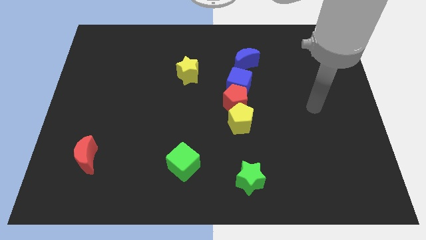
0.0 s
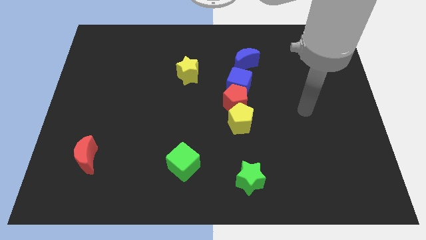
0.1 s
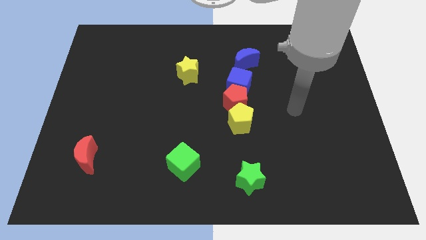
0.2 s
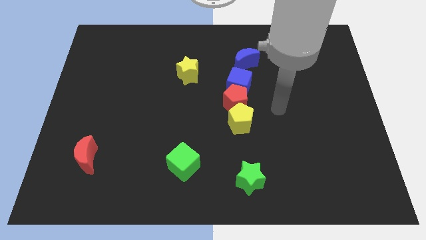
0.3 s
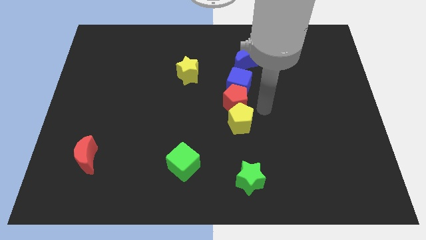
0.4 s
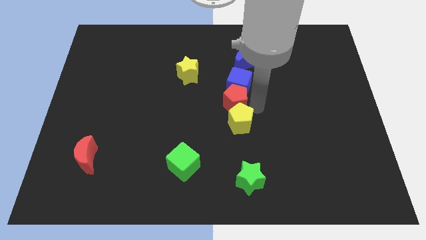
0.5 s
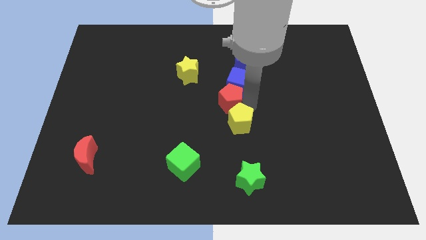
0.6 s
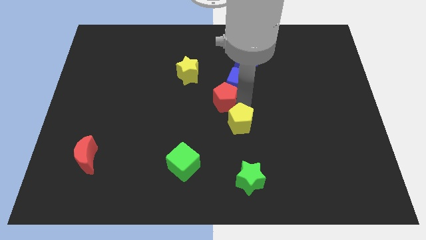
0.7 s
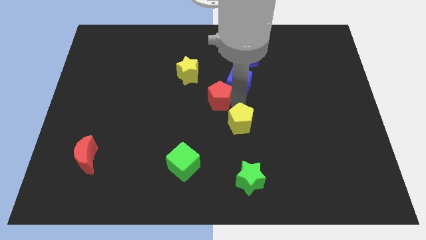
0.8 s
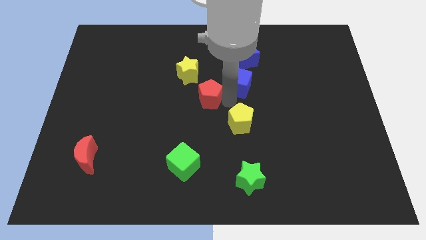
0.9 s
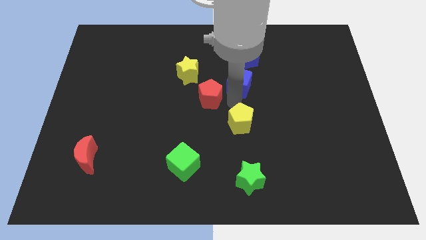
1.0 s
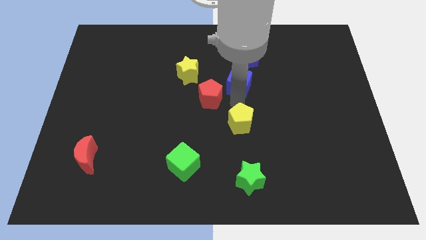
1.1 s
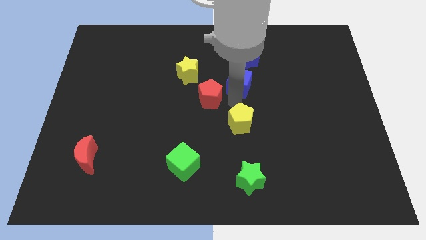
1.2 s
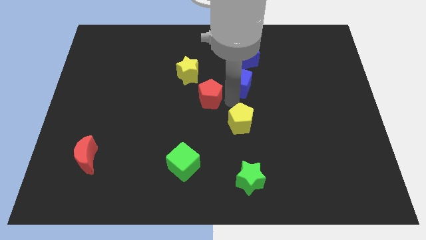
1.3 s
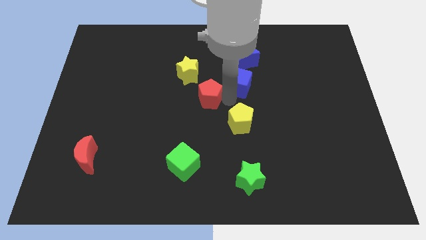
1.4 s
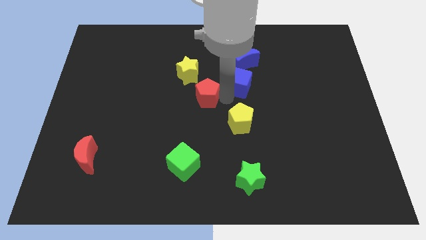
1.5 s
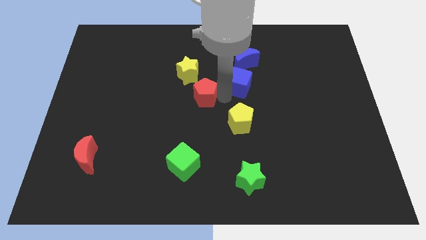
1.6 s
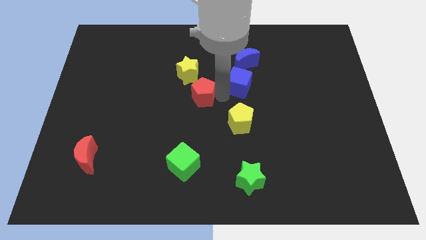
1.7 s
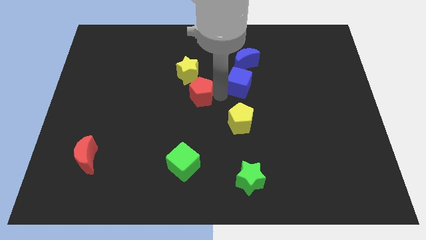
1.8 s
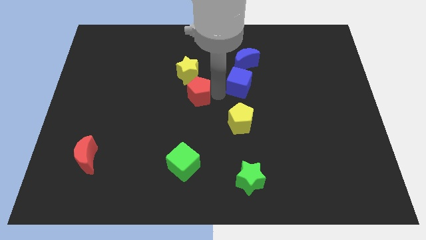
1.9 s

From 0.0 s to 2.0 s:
move the red pentagon away from the blue cube and yellow pentagon

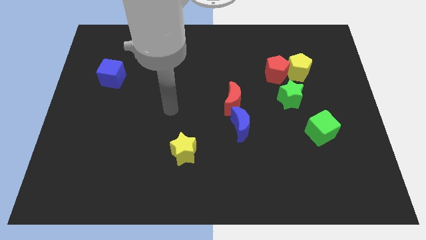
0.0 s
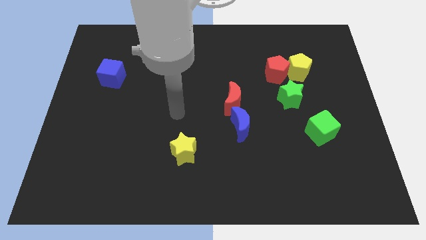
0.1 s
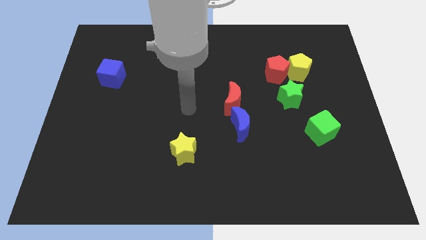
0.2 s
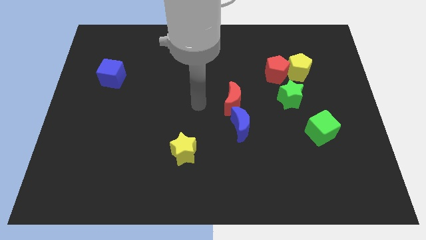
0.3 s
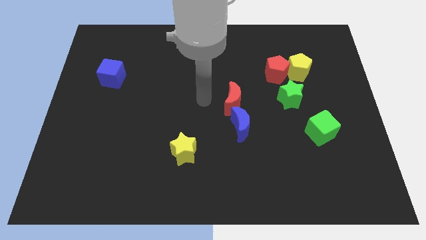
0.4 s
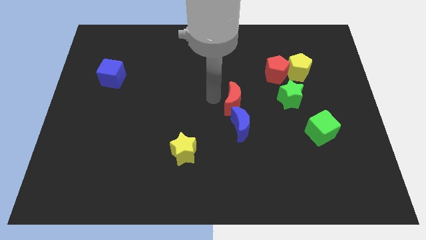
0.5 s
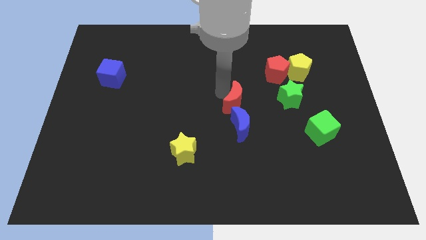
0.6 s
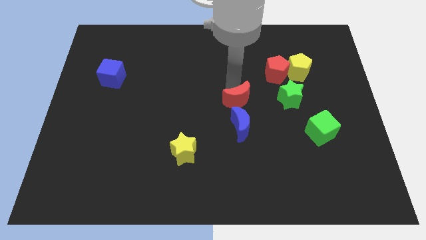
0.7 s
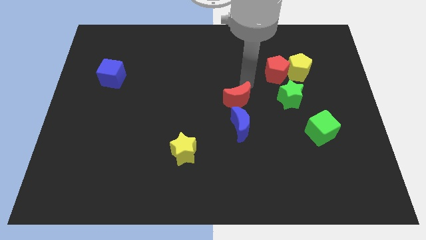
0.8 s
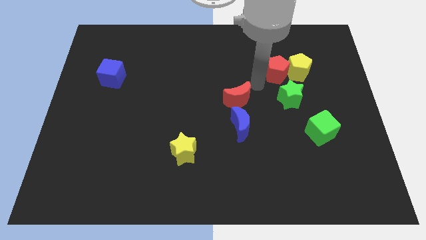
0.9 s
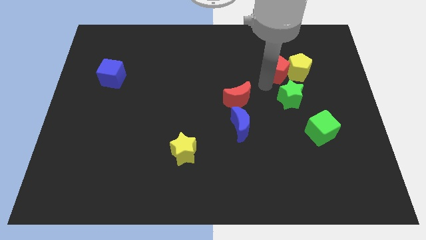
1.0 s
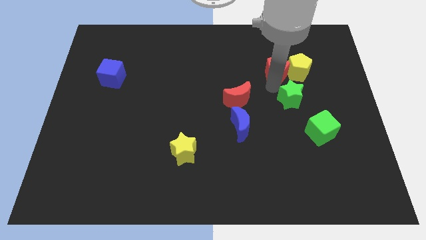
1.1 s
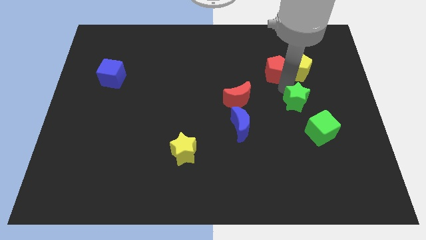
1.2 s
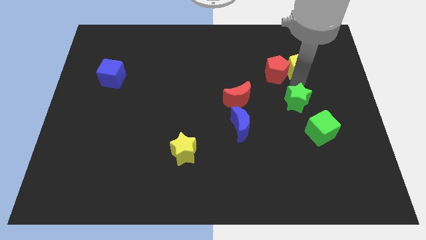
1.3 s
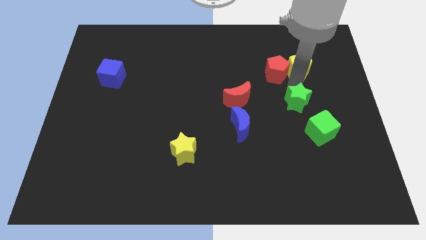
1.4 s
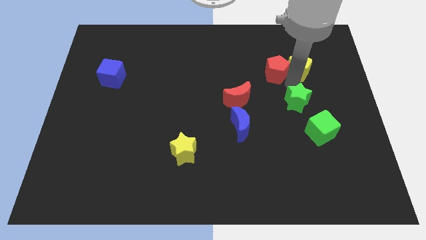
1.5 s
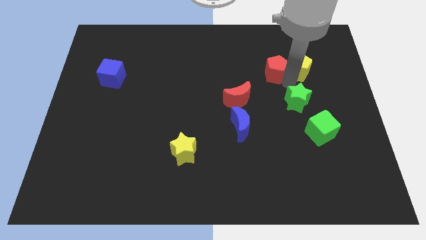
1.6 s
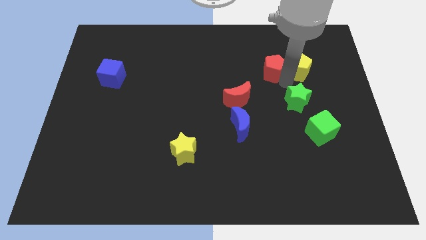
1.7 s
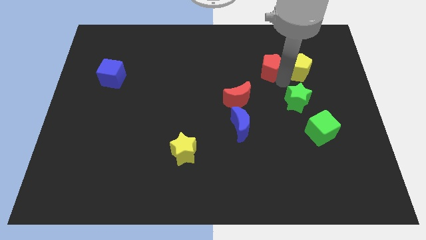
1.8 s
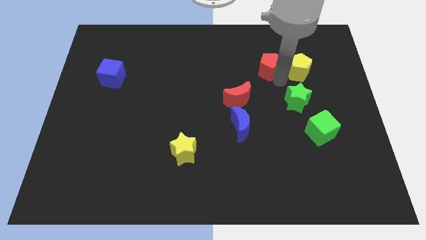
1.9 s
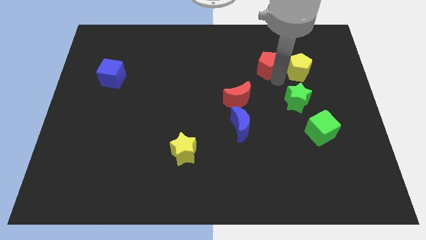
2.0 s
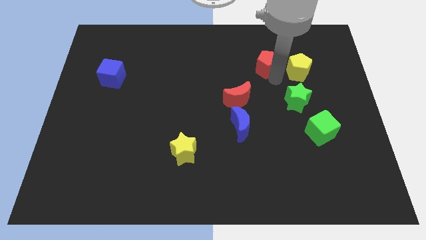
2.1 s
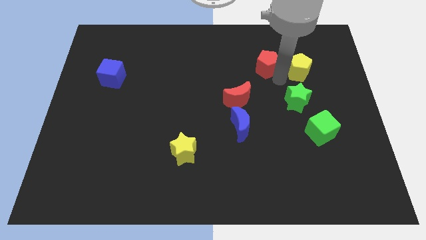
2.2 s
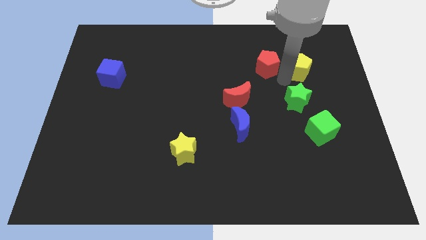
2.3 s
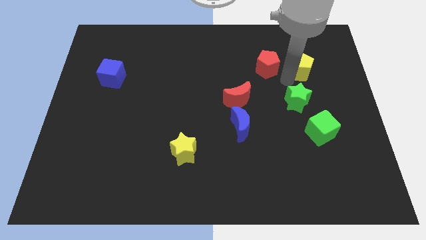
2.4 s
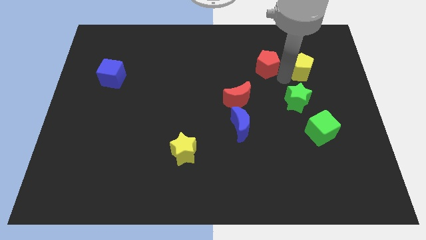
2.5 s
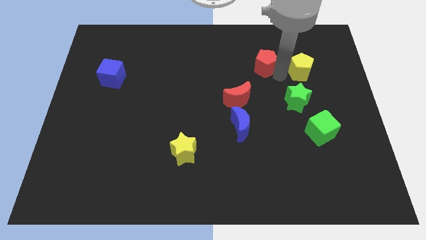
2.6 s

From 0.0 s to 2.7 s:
separate the red pentagon from the yellow pentagon and green star

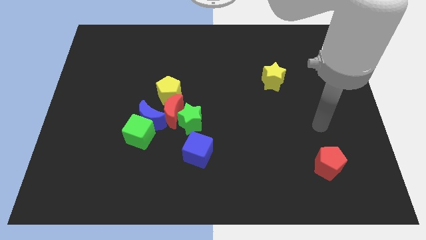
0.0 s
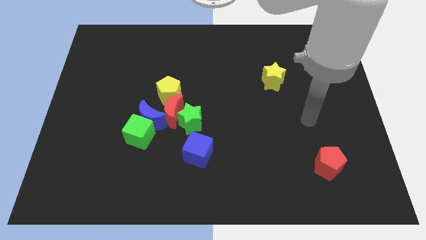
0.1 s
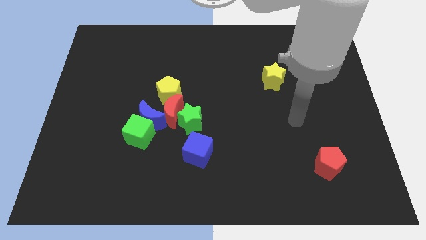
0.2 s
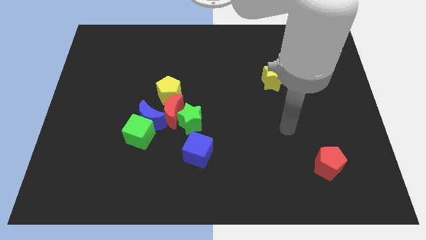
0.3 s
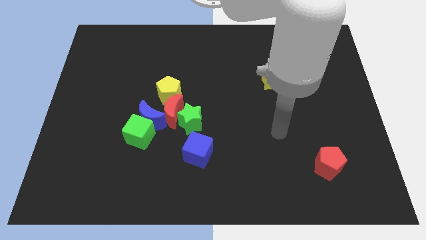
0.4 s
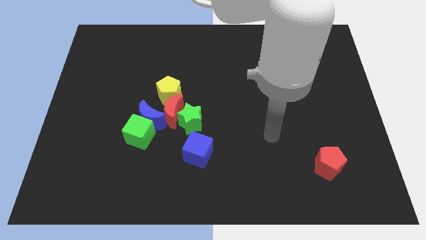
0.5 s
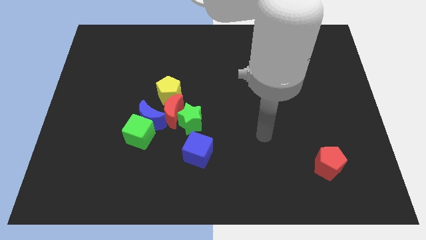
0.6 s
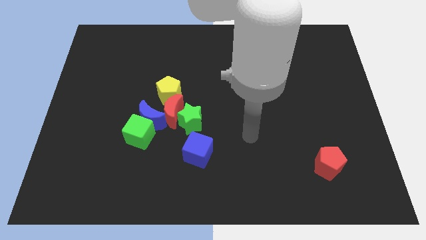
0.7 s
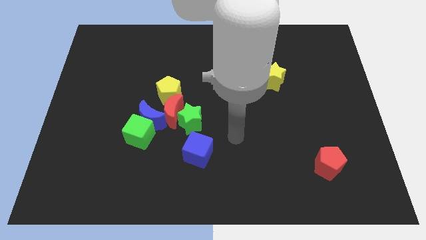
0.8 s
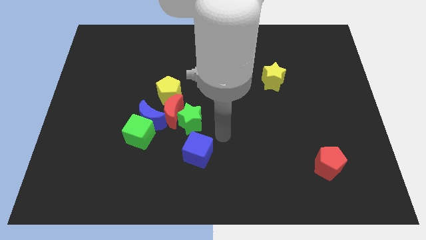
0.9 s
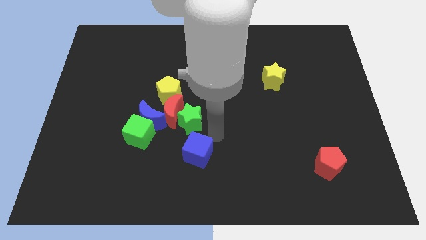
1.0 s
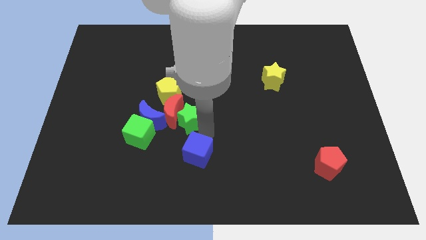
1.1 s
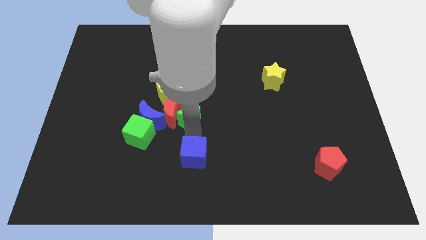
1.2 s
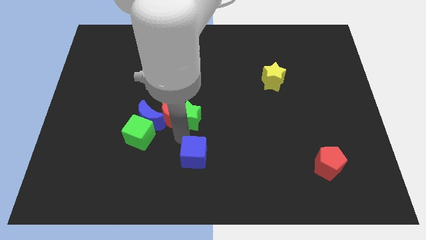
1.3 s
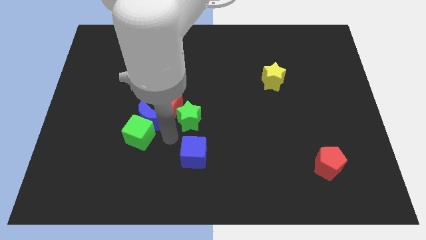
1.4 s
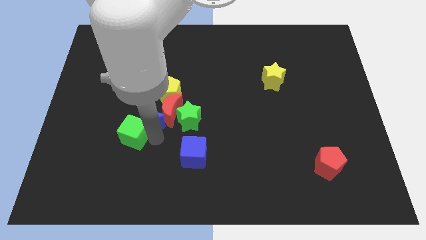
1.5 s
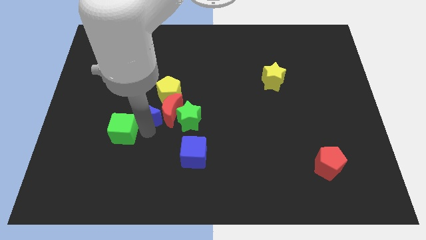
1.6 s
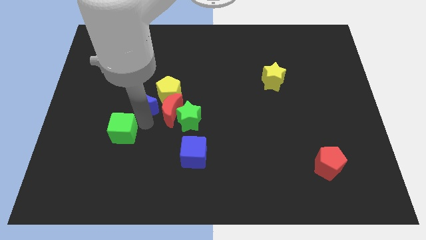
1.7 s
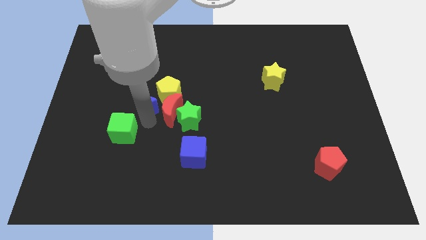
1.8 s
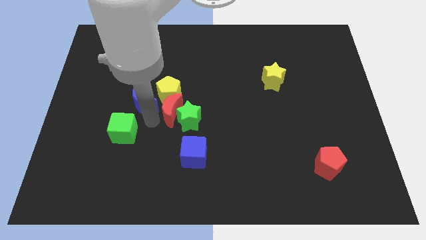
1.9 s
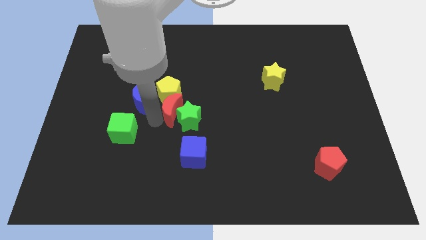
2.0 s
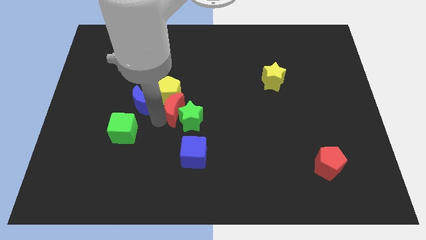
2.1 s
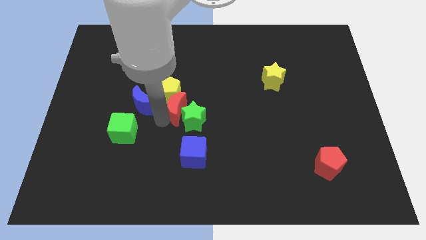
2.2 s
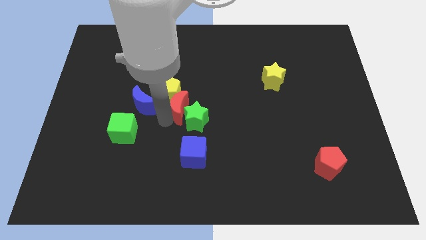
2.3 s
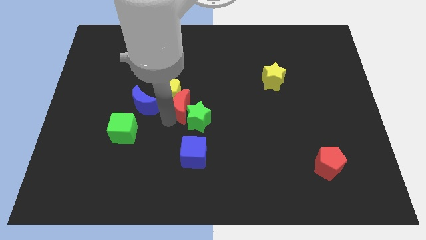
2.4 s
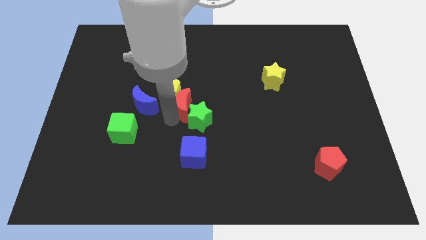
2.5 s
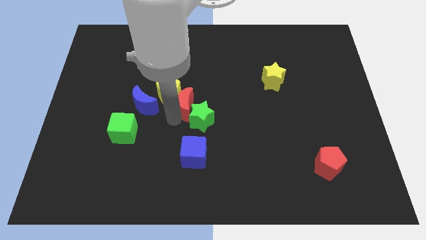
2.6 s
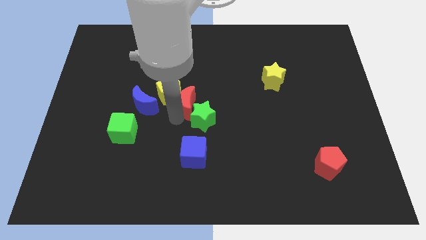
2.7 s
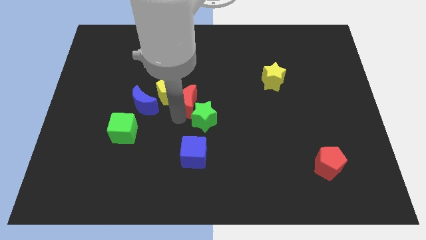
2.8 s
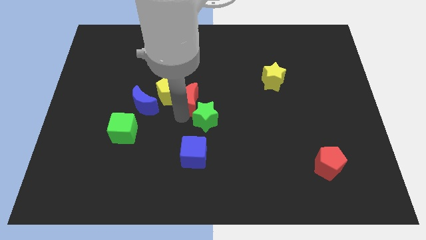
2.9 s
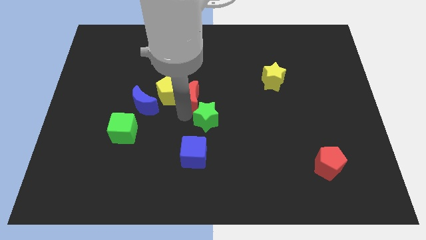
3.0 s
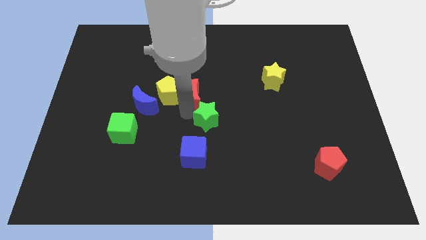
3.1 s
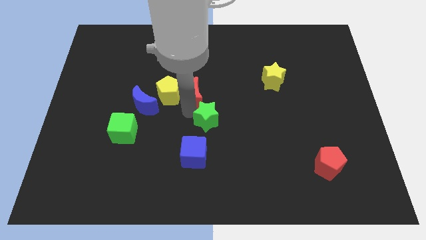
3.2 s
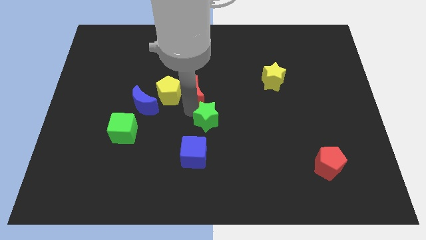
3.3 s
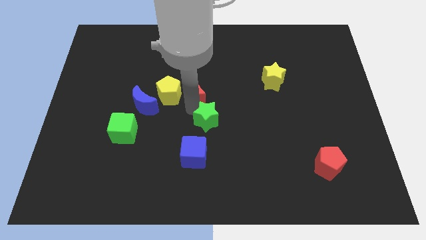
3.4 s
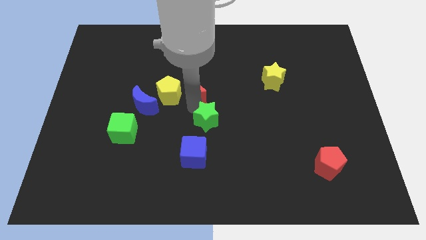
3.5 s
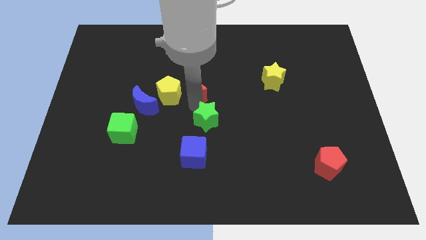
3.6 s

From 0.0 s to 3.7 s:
separate the red moon from the clump

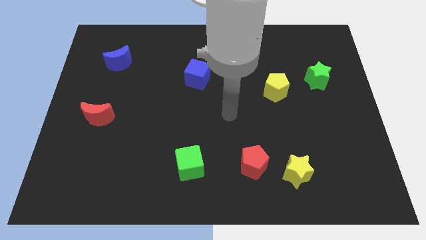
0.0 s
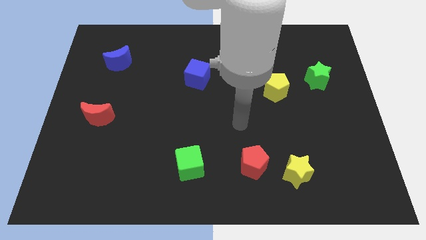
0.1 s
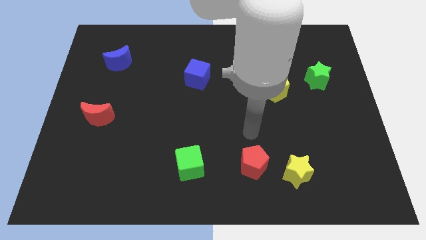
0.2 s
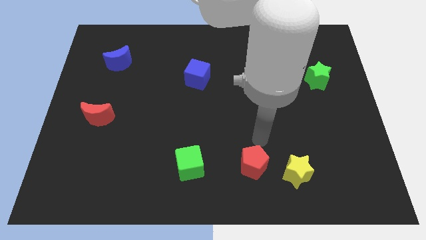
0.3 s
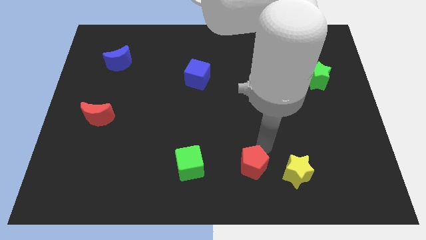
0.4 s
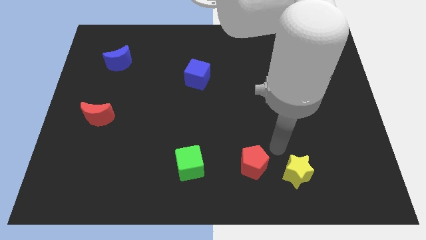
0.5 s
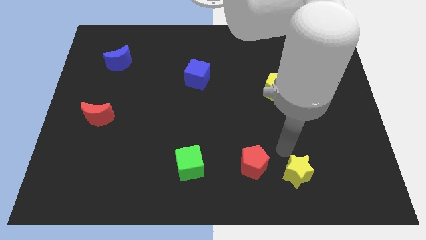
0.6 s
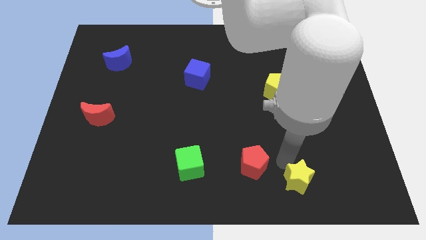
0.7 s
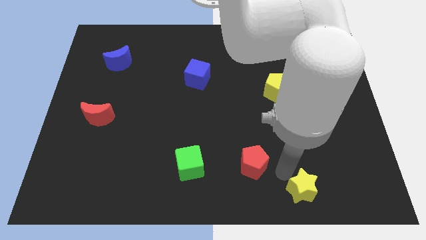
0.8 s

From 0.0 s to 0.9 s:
move the red pentagon away from the yellow star

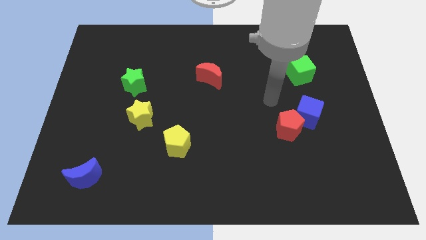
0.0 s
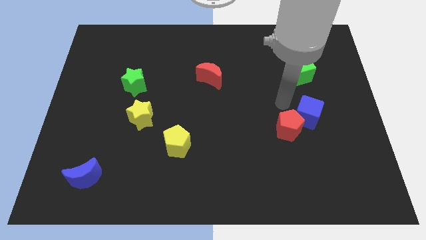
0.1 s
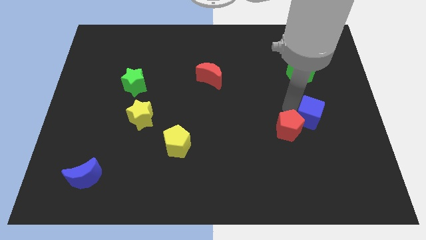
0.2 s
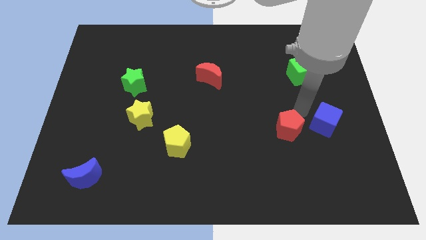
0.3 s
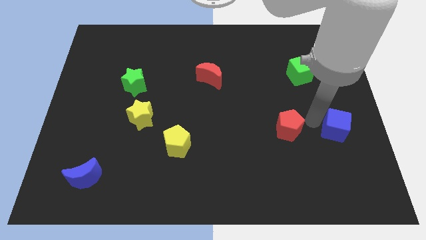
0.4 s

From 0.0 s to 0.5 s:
pull the red pentagon apart from the blue cube
